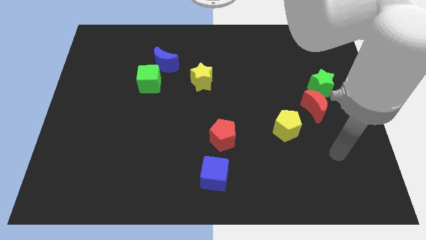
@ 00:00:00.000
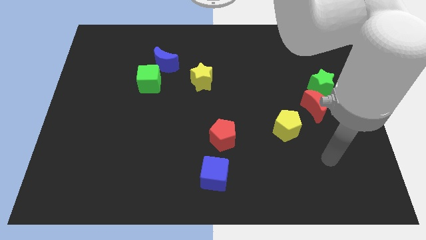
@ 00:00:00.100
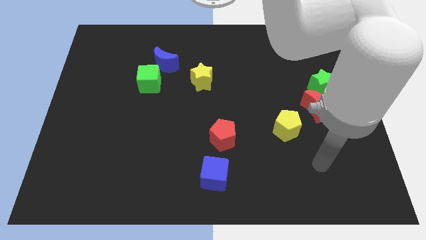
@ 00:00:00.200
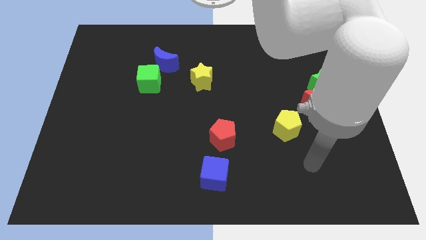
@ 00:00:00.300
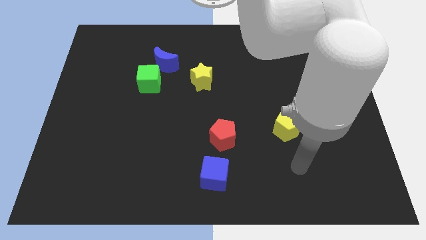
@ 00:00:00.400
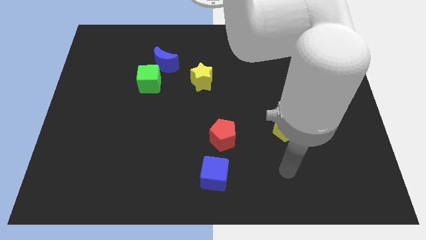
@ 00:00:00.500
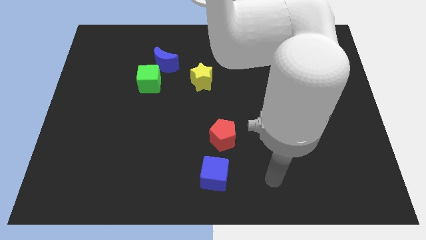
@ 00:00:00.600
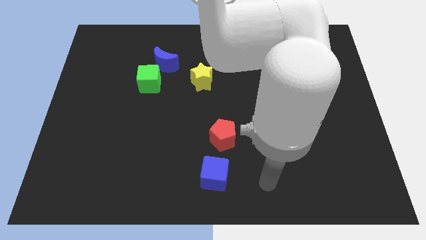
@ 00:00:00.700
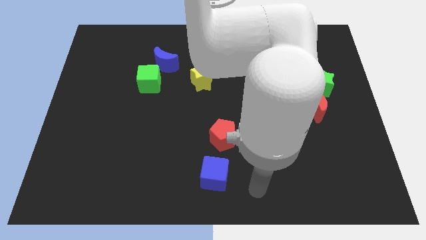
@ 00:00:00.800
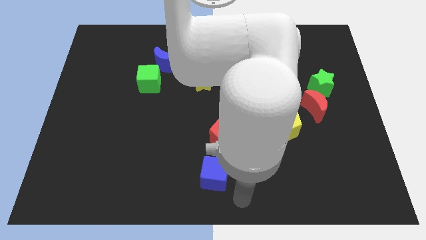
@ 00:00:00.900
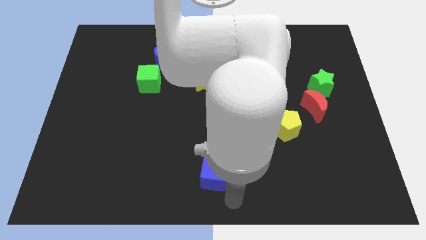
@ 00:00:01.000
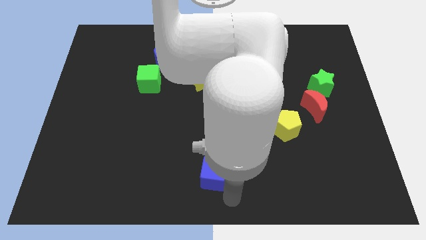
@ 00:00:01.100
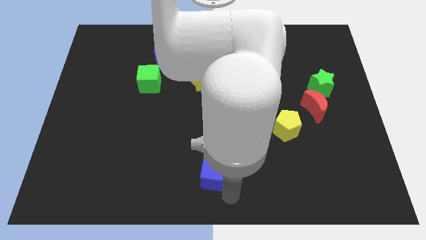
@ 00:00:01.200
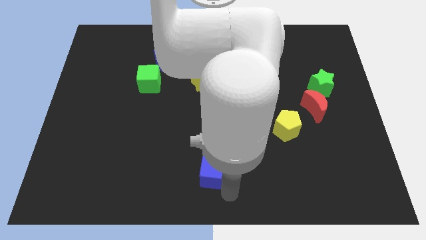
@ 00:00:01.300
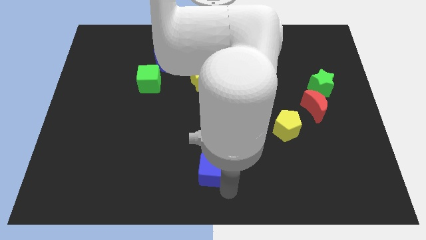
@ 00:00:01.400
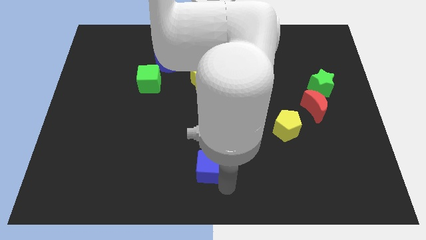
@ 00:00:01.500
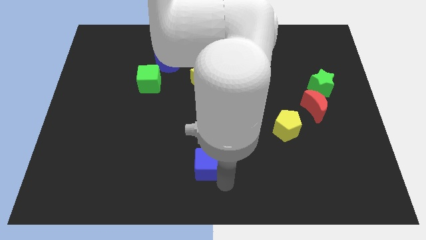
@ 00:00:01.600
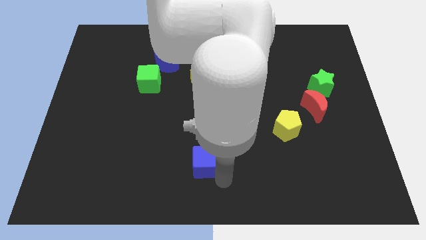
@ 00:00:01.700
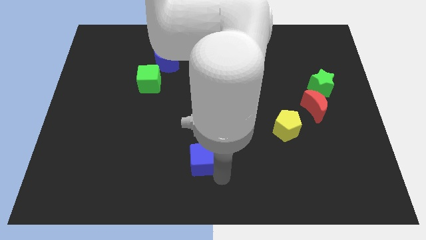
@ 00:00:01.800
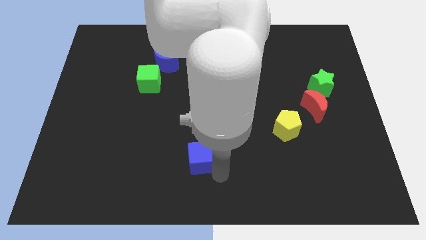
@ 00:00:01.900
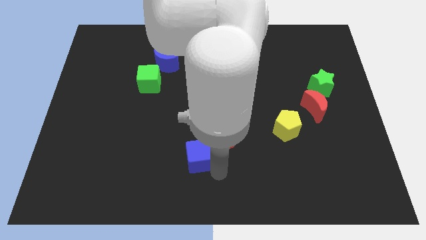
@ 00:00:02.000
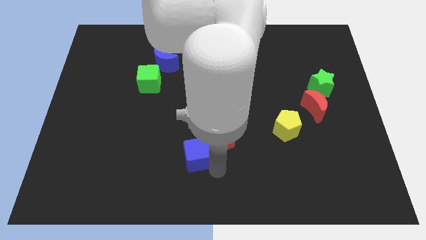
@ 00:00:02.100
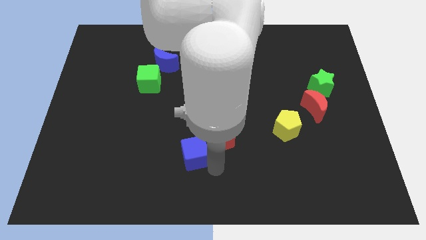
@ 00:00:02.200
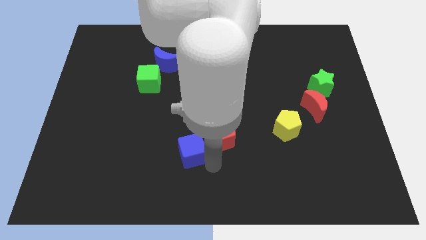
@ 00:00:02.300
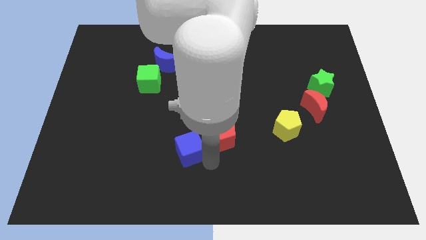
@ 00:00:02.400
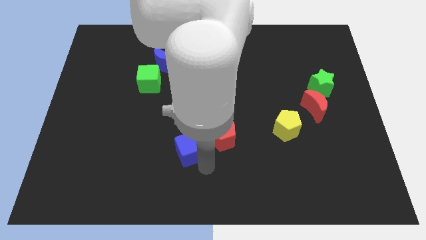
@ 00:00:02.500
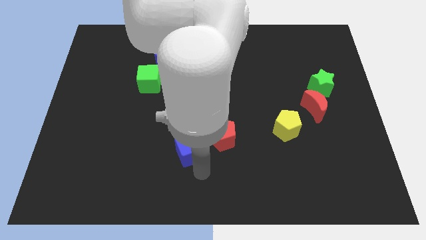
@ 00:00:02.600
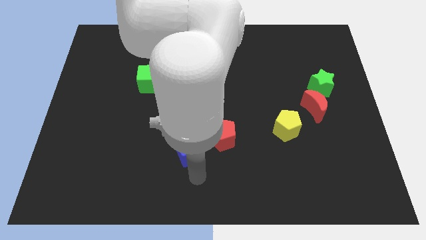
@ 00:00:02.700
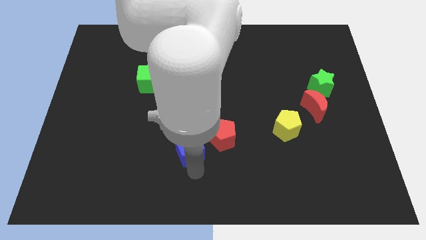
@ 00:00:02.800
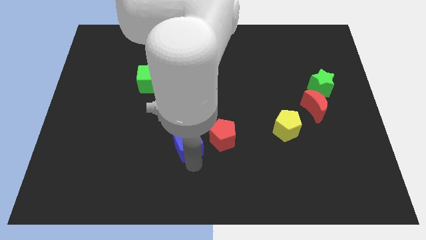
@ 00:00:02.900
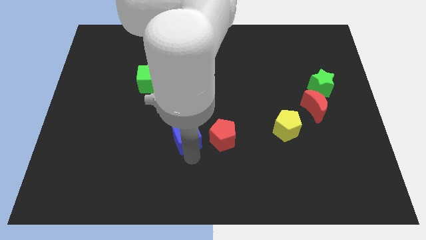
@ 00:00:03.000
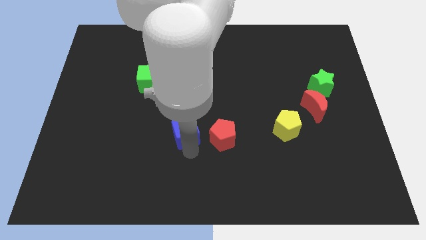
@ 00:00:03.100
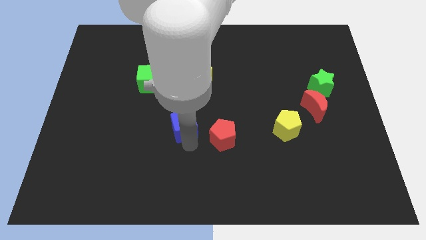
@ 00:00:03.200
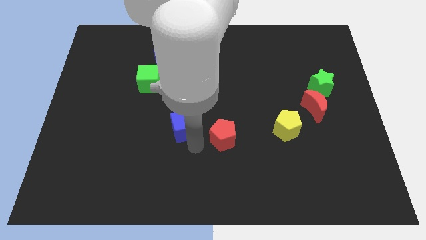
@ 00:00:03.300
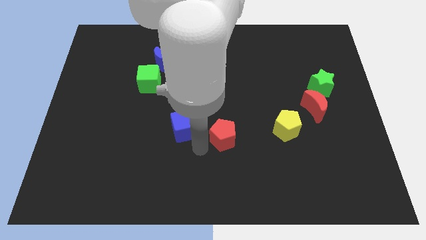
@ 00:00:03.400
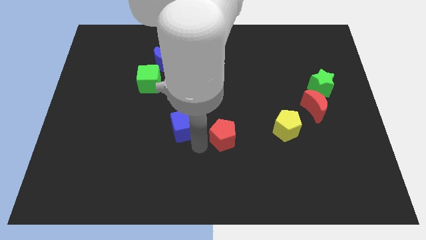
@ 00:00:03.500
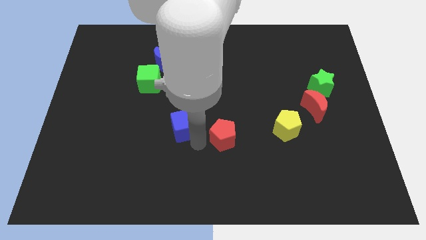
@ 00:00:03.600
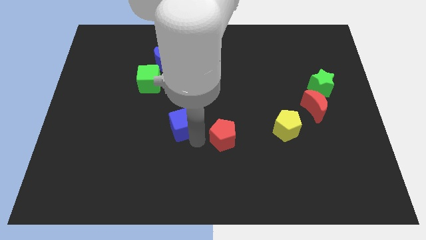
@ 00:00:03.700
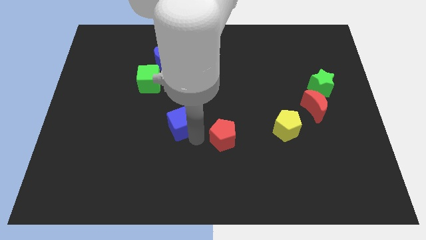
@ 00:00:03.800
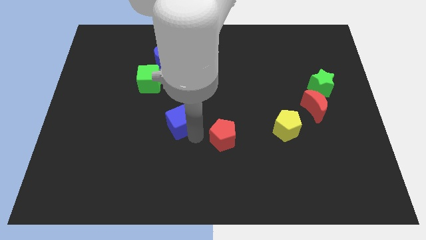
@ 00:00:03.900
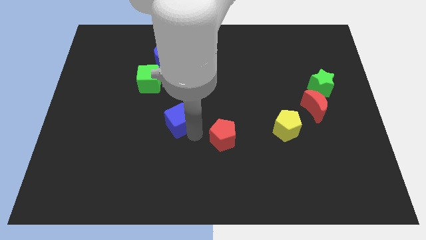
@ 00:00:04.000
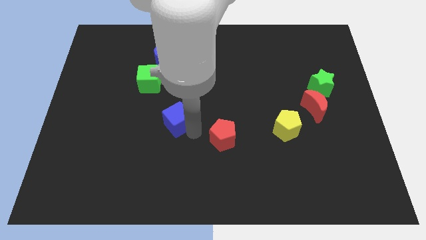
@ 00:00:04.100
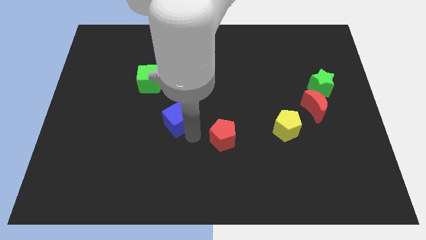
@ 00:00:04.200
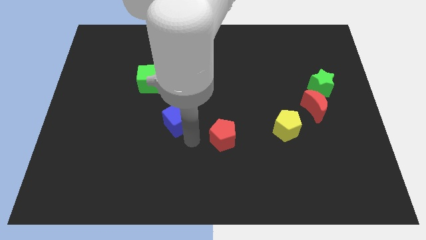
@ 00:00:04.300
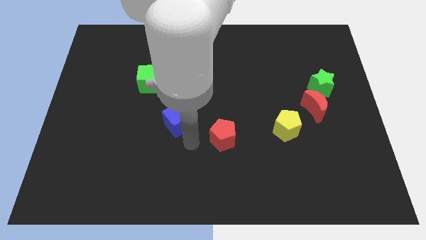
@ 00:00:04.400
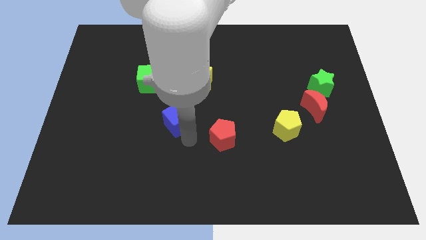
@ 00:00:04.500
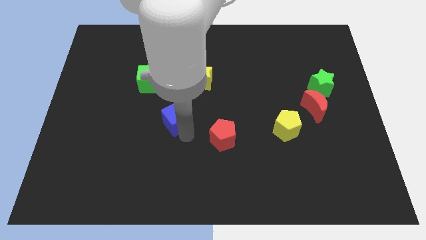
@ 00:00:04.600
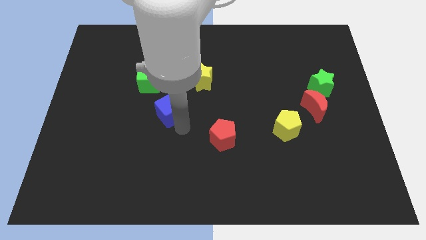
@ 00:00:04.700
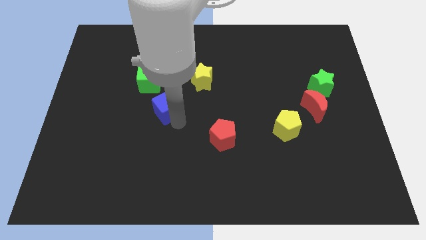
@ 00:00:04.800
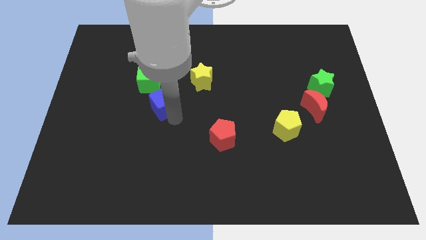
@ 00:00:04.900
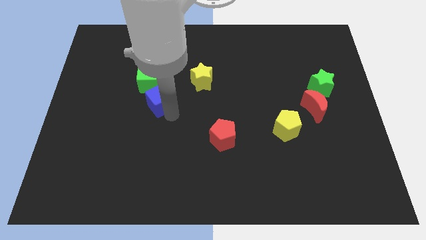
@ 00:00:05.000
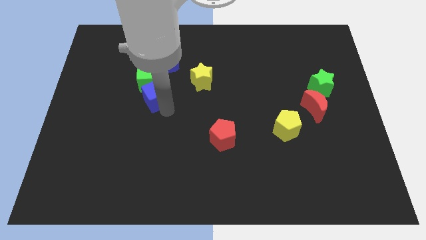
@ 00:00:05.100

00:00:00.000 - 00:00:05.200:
move the blue cube to the green cube

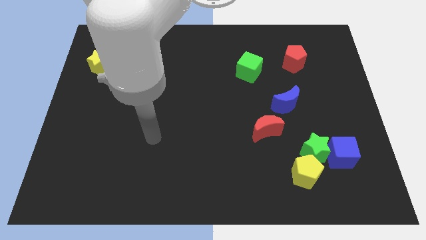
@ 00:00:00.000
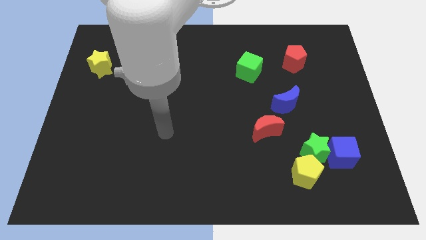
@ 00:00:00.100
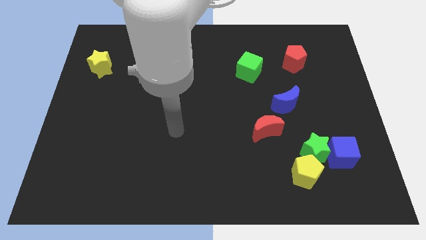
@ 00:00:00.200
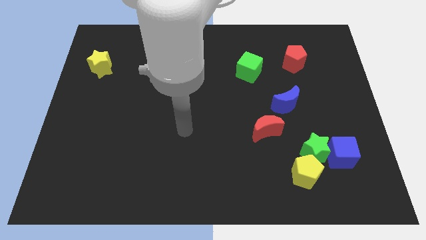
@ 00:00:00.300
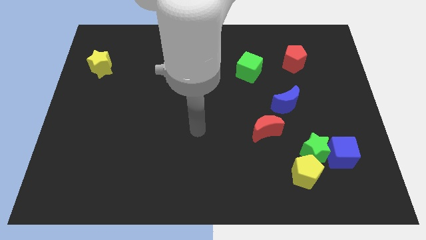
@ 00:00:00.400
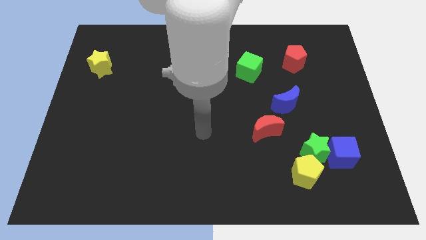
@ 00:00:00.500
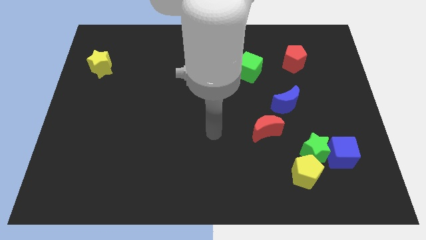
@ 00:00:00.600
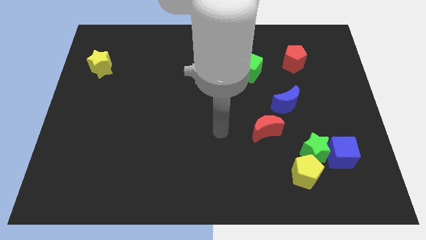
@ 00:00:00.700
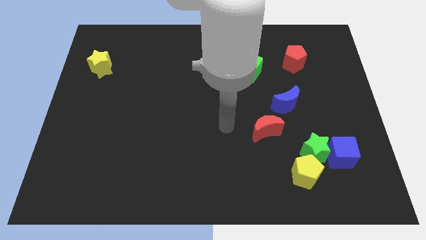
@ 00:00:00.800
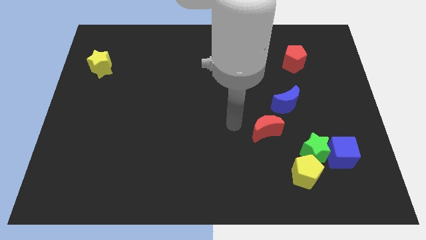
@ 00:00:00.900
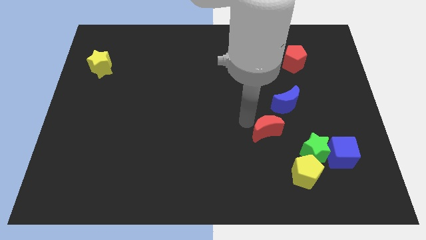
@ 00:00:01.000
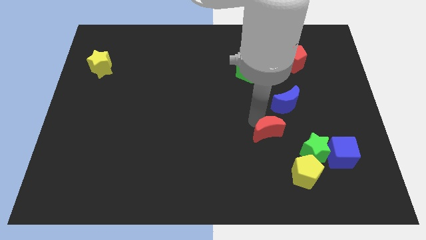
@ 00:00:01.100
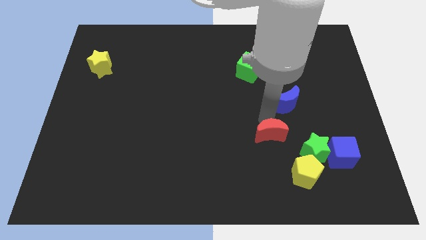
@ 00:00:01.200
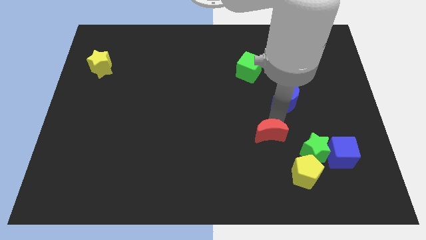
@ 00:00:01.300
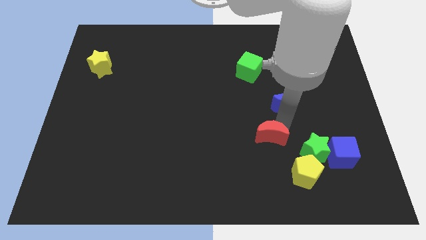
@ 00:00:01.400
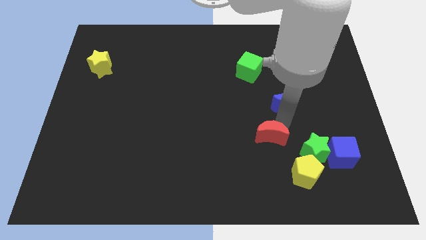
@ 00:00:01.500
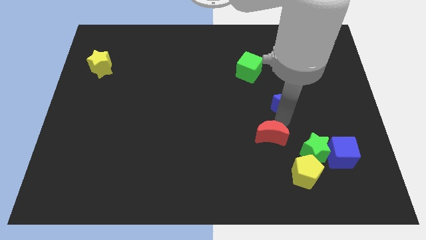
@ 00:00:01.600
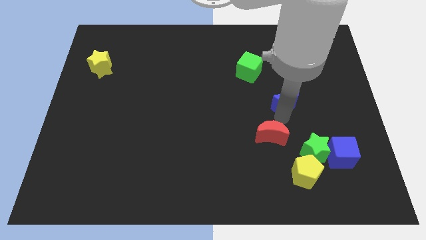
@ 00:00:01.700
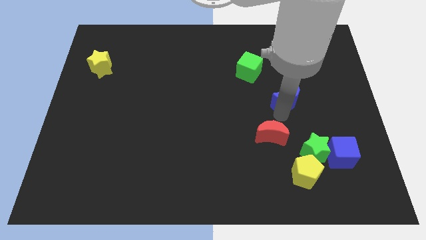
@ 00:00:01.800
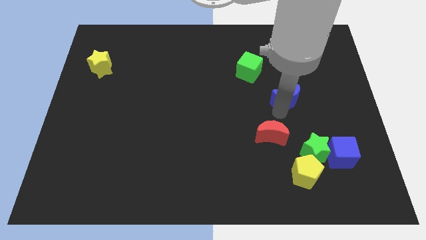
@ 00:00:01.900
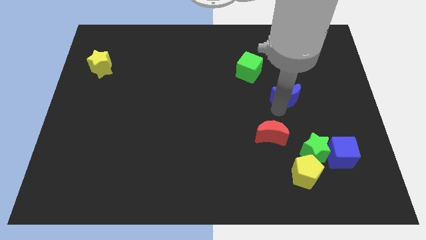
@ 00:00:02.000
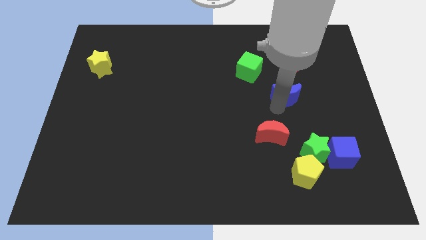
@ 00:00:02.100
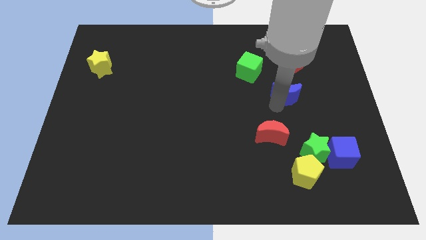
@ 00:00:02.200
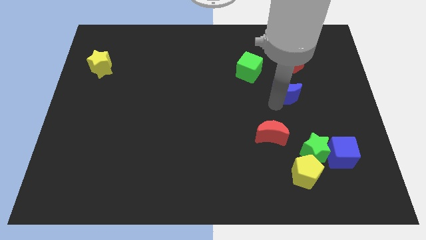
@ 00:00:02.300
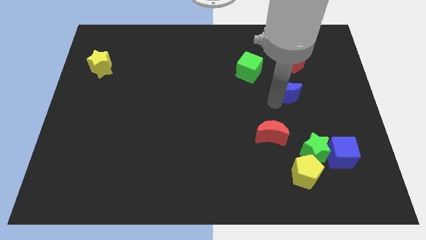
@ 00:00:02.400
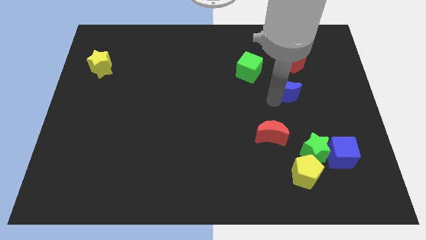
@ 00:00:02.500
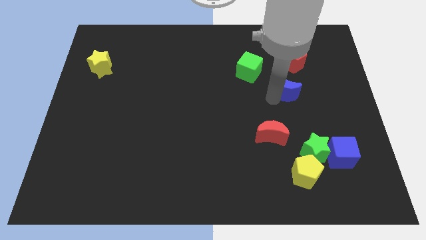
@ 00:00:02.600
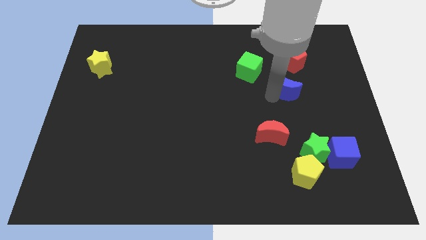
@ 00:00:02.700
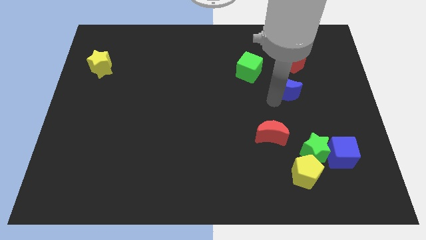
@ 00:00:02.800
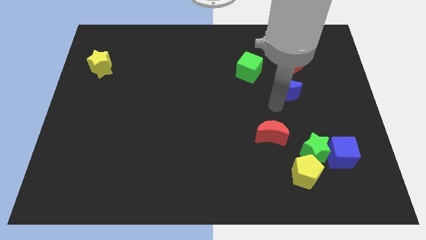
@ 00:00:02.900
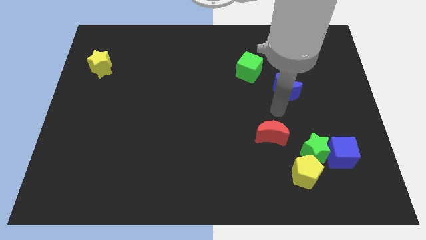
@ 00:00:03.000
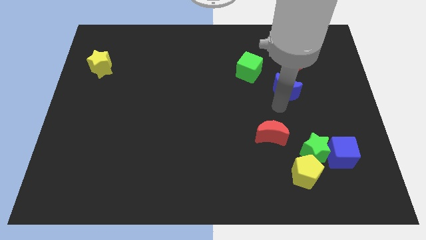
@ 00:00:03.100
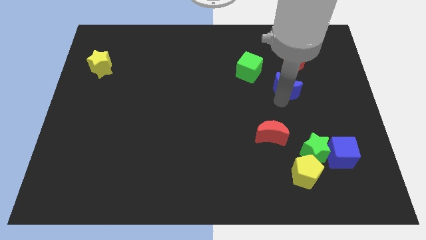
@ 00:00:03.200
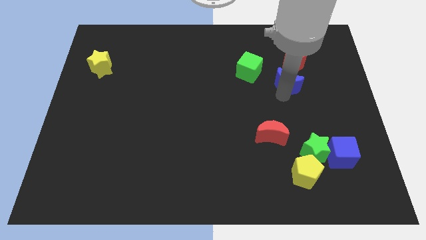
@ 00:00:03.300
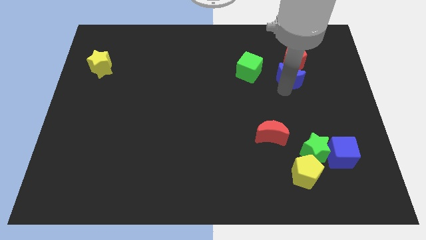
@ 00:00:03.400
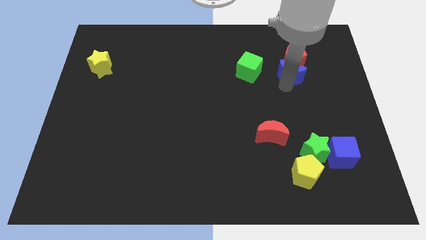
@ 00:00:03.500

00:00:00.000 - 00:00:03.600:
move the blue moon close to the red pentagon
